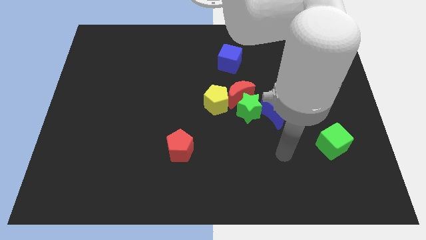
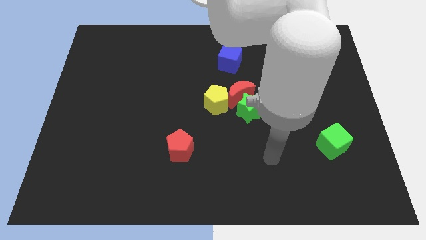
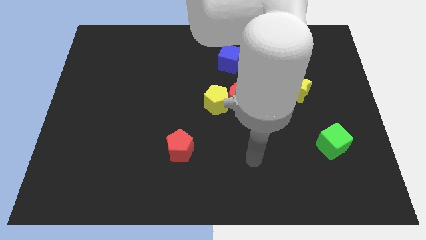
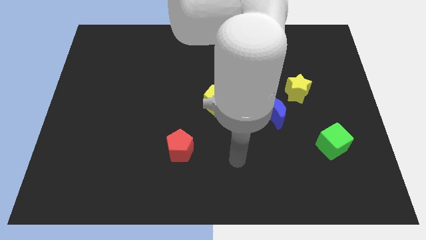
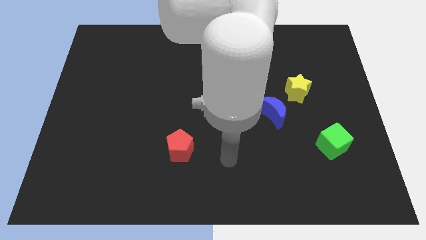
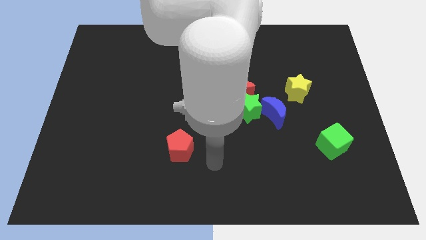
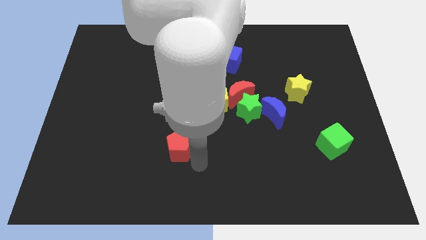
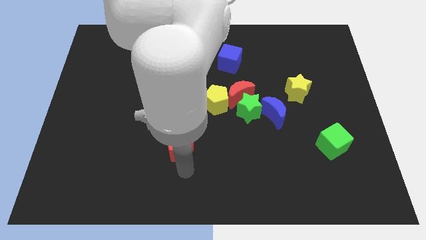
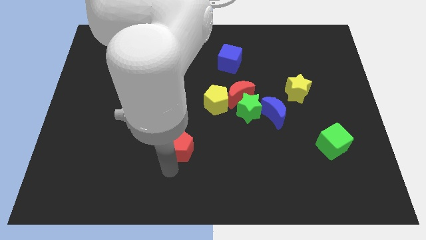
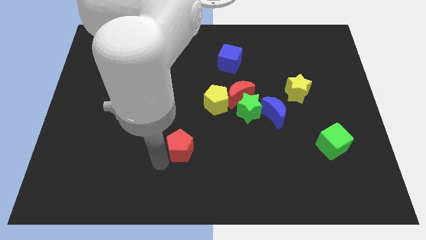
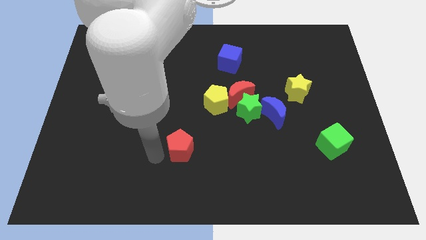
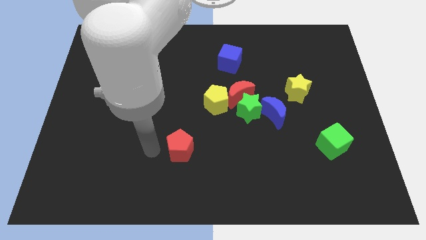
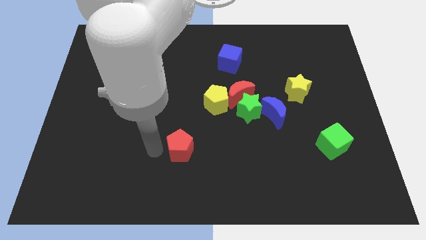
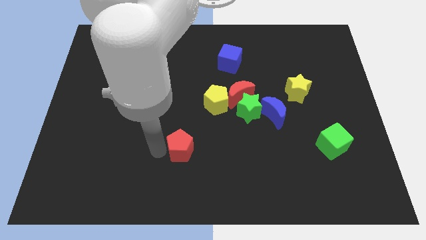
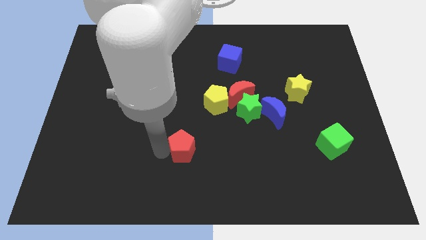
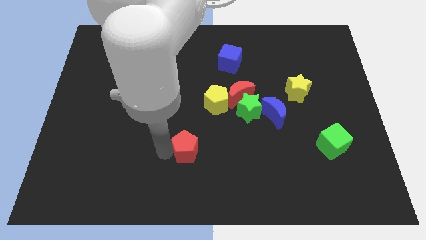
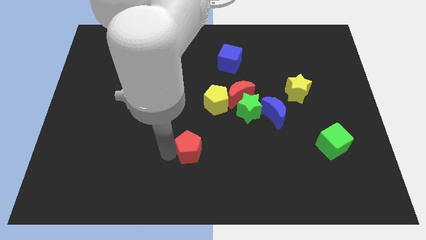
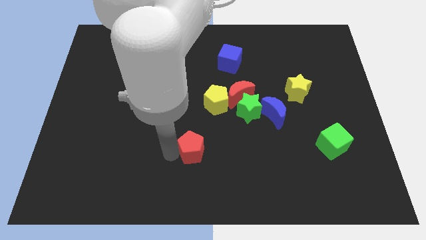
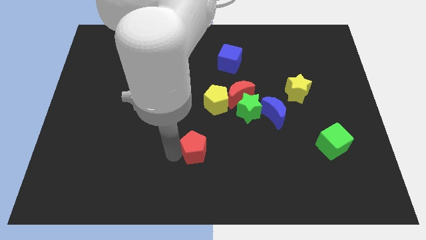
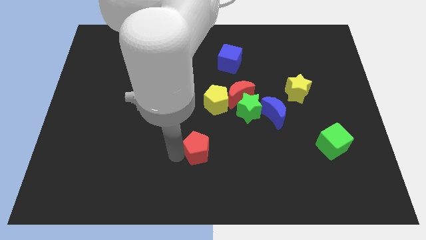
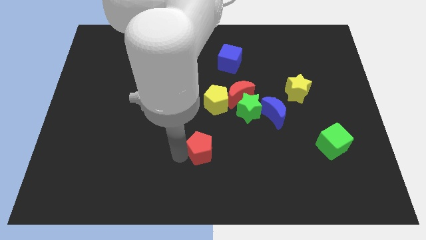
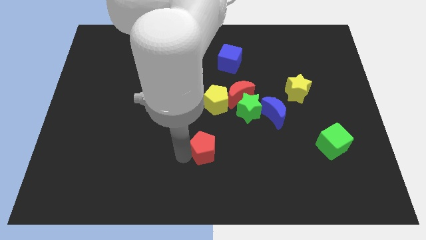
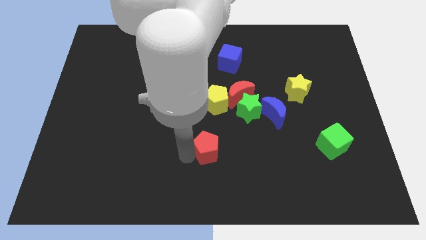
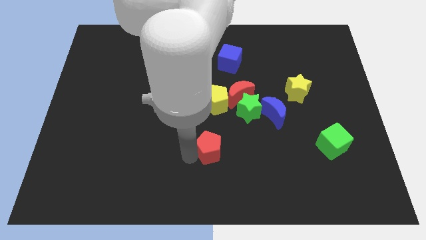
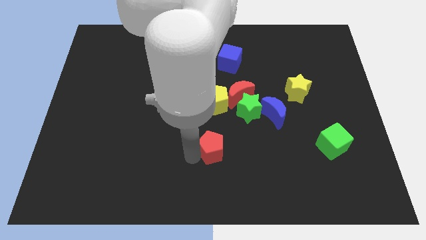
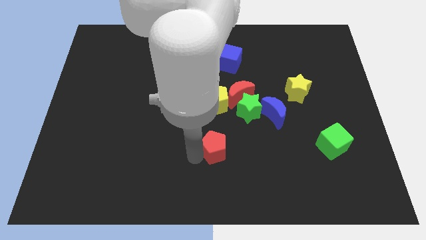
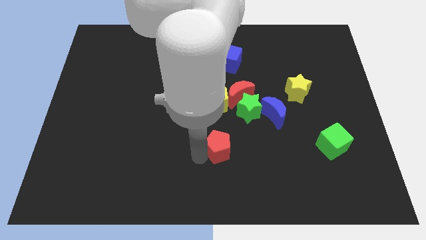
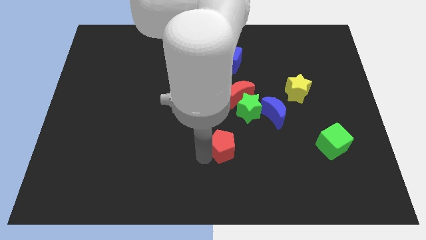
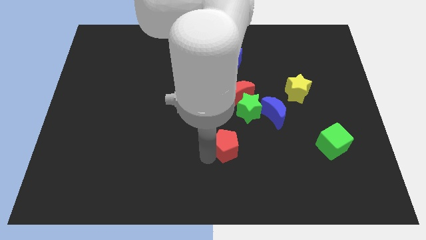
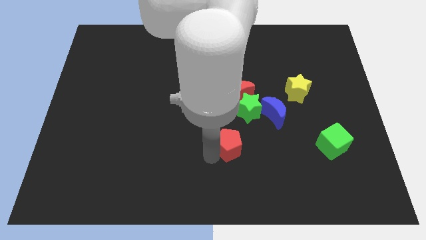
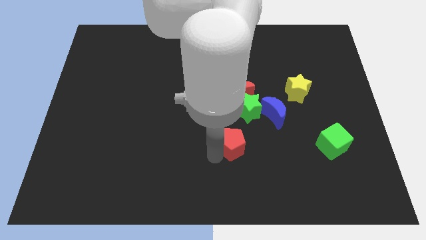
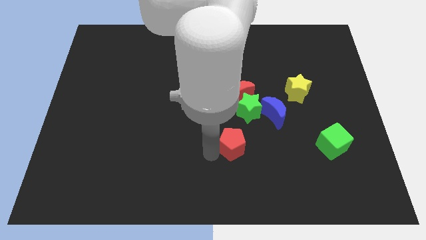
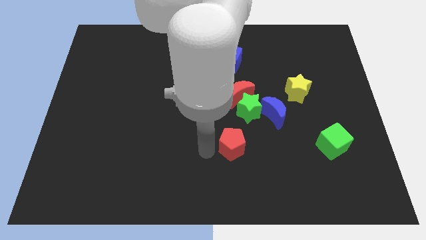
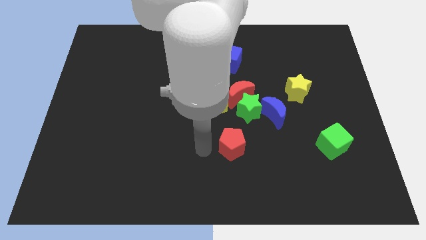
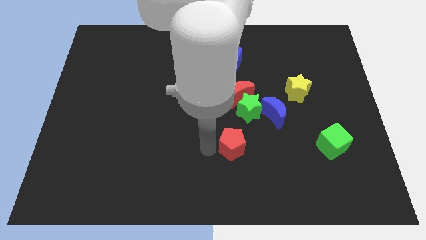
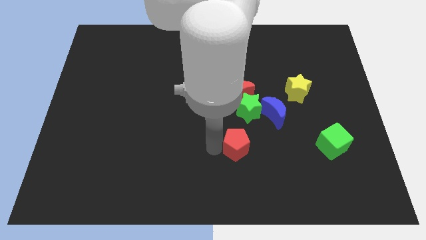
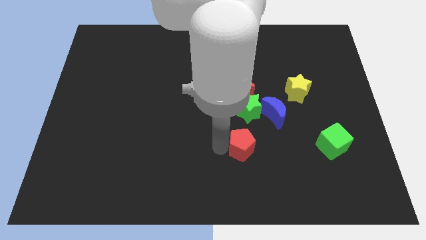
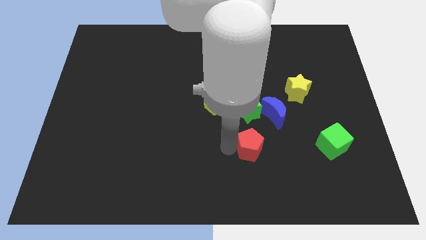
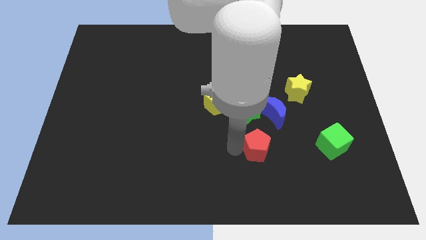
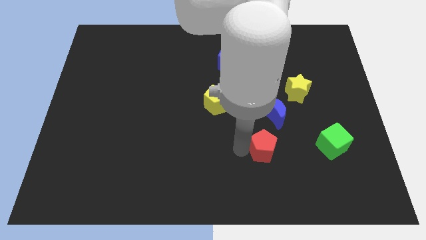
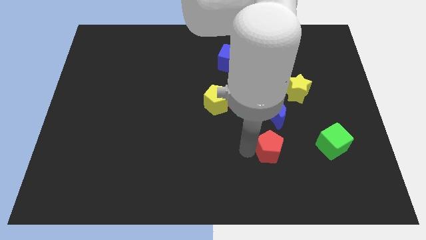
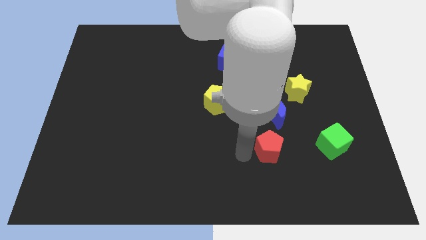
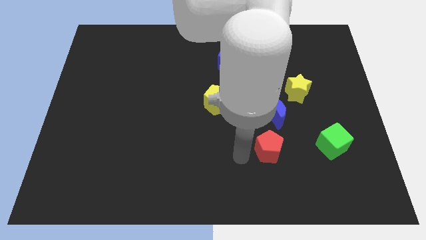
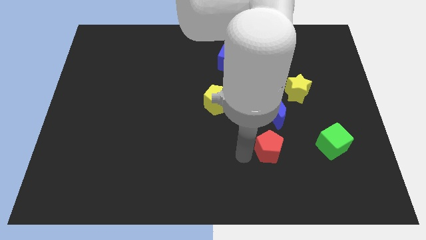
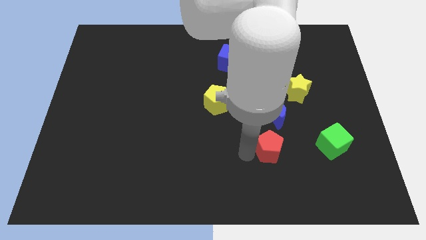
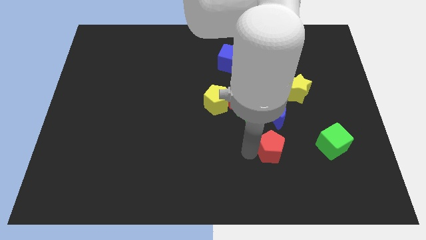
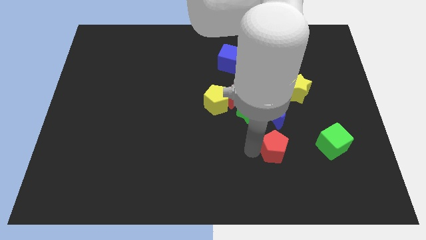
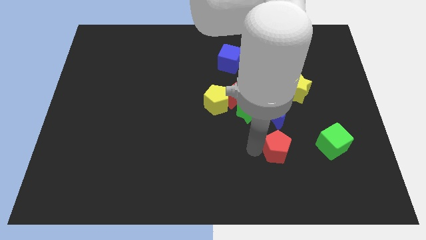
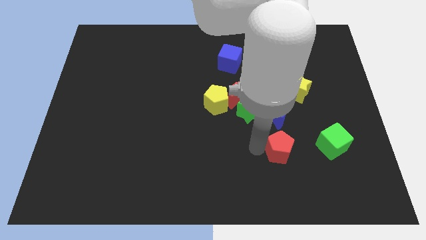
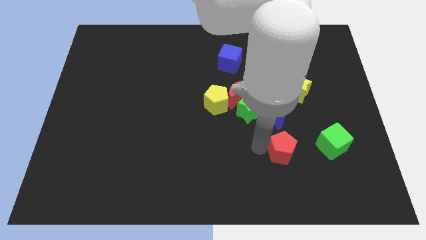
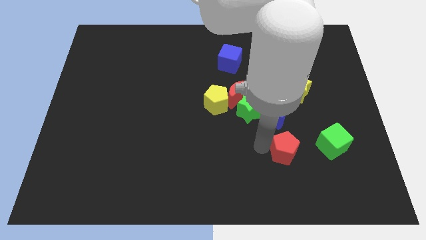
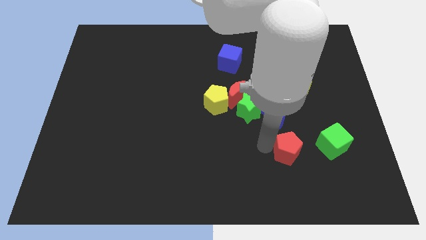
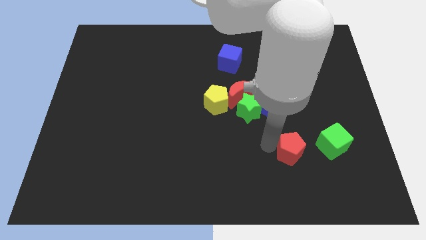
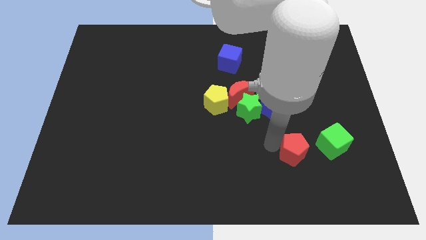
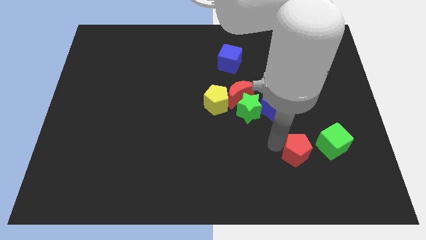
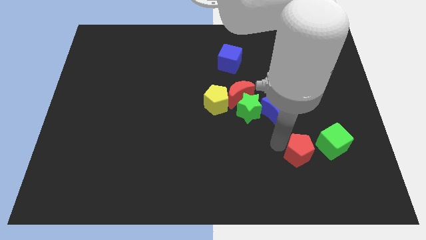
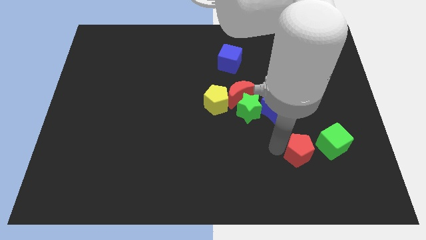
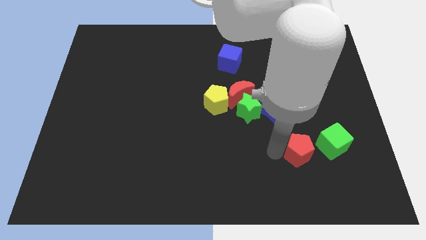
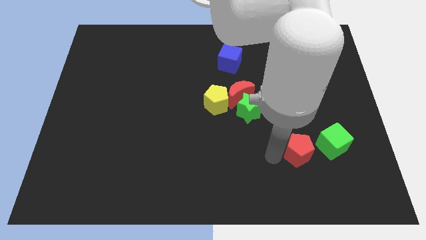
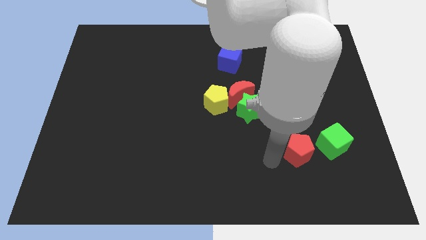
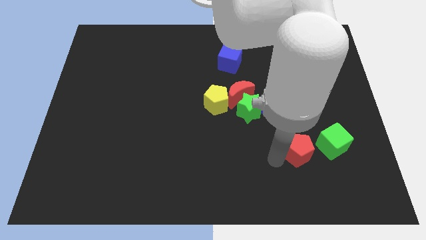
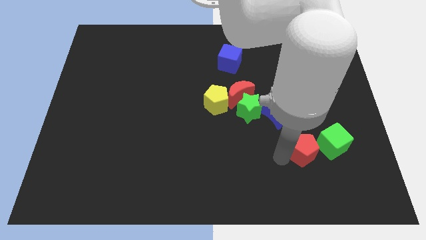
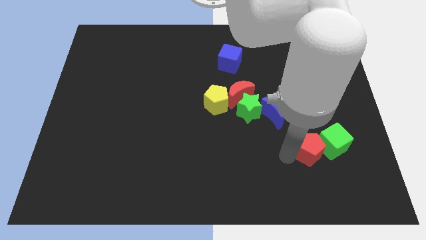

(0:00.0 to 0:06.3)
move the red pentagon close to the green cube
